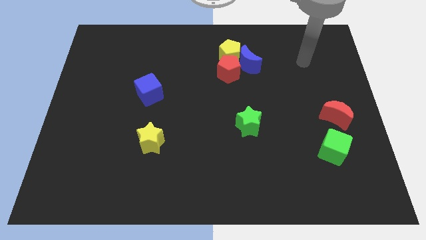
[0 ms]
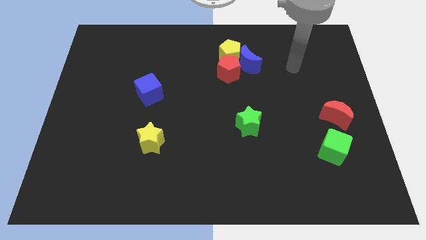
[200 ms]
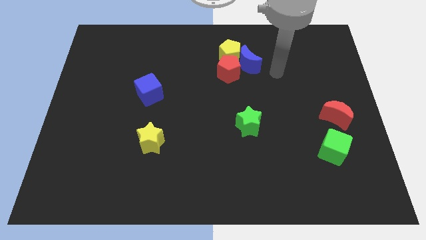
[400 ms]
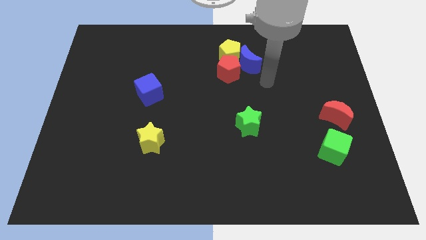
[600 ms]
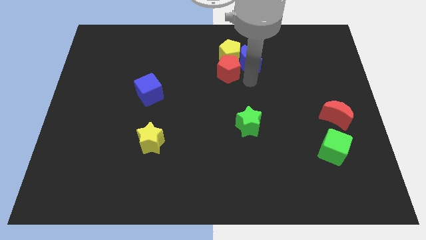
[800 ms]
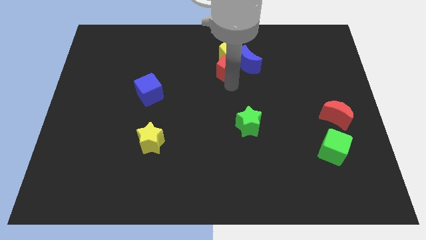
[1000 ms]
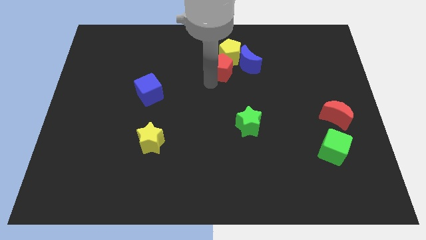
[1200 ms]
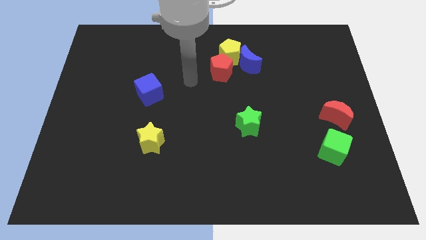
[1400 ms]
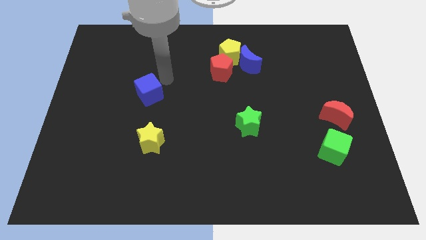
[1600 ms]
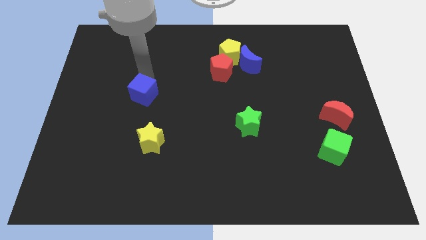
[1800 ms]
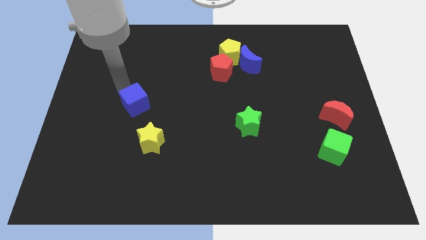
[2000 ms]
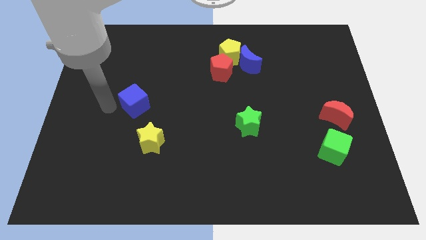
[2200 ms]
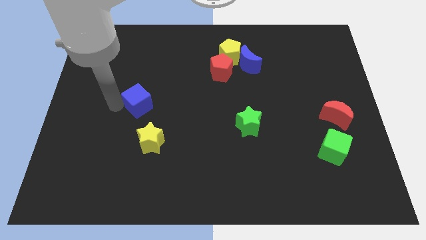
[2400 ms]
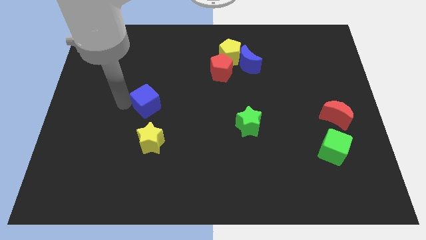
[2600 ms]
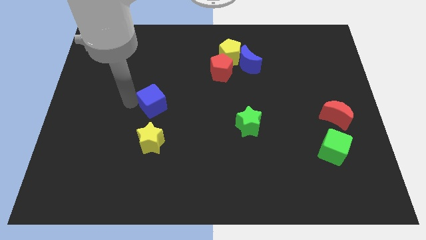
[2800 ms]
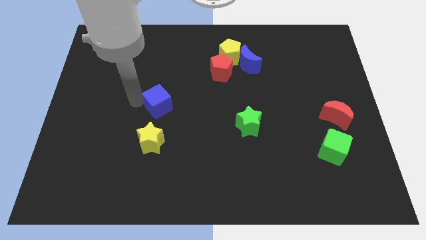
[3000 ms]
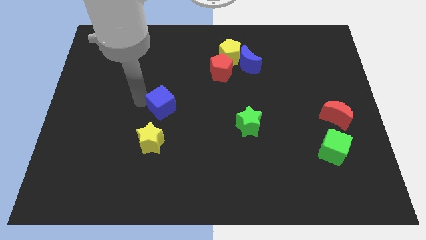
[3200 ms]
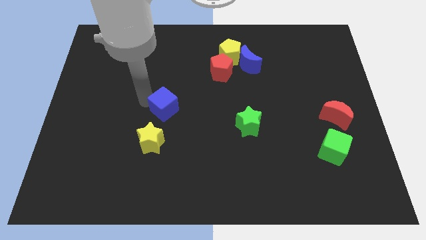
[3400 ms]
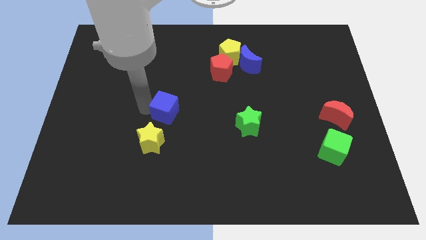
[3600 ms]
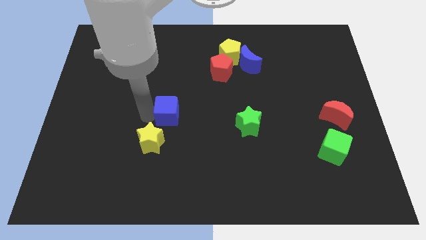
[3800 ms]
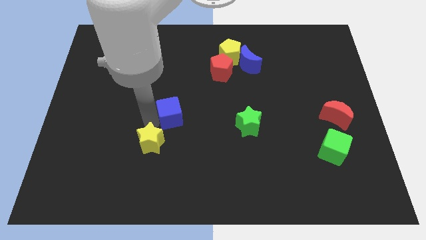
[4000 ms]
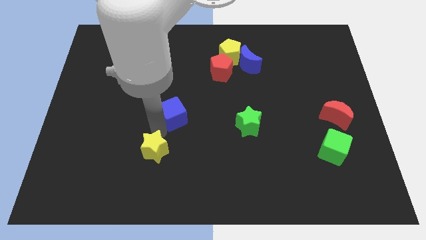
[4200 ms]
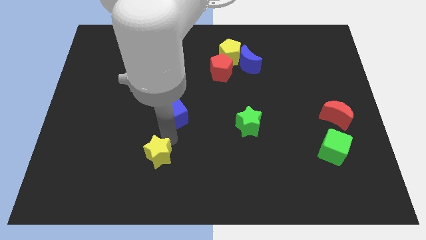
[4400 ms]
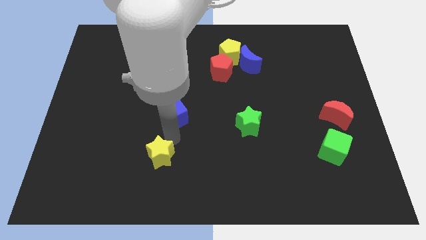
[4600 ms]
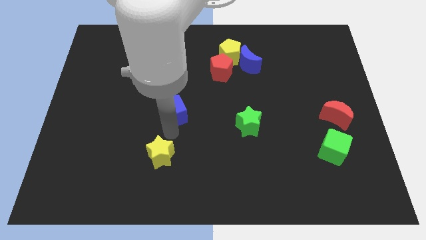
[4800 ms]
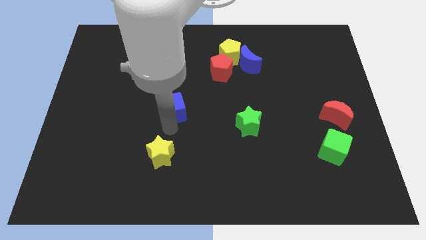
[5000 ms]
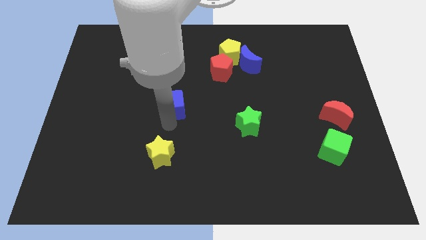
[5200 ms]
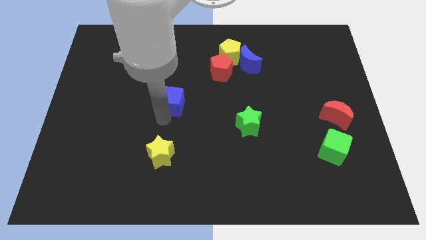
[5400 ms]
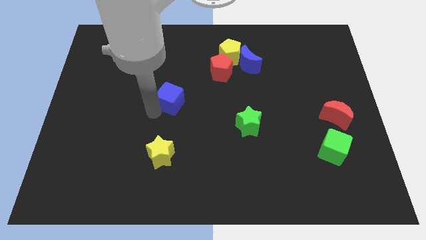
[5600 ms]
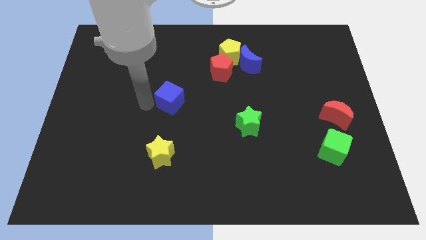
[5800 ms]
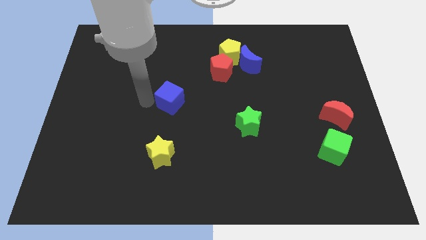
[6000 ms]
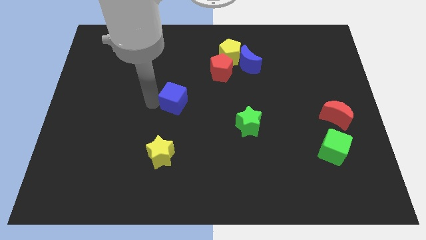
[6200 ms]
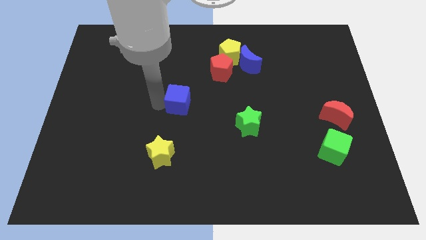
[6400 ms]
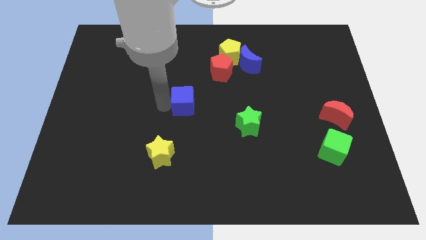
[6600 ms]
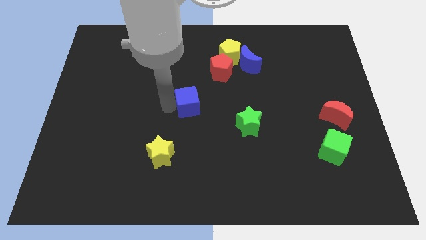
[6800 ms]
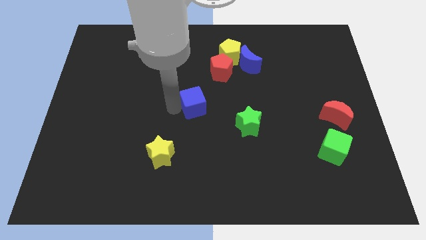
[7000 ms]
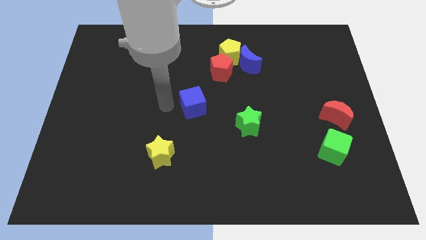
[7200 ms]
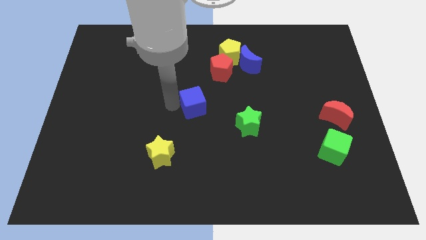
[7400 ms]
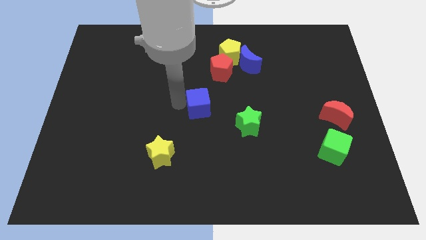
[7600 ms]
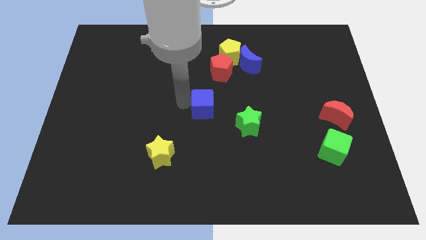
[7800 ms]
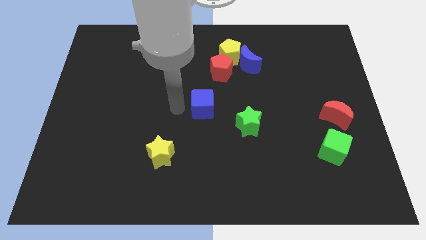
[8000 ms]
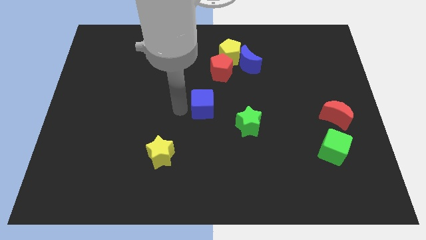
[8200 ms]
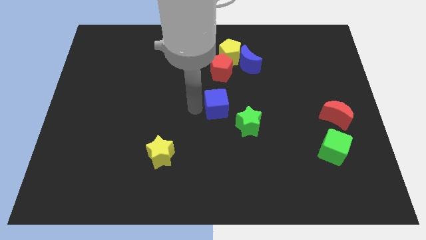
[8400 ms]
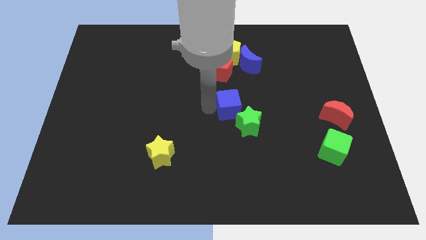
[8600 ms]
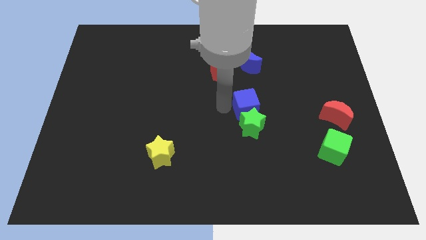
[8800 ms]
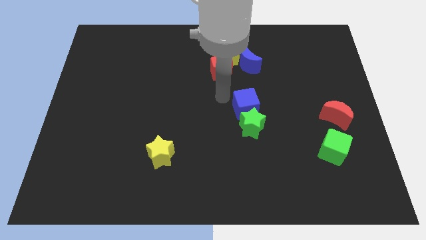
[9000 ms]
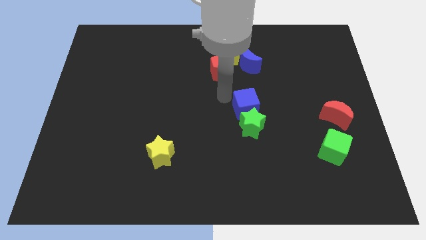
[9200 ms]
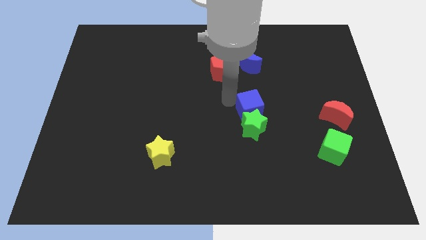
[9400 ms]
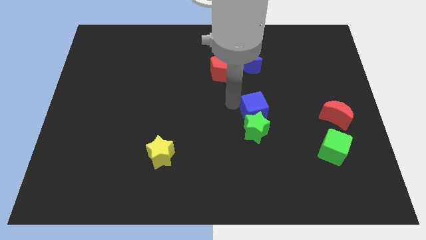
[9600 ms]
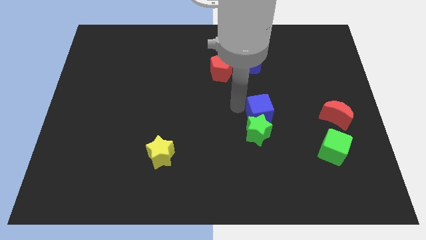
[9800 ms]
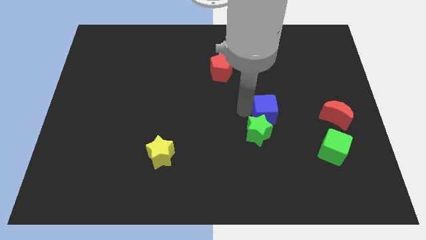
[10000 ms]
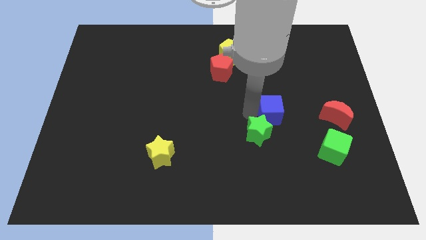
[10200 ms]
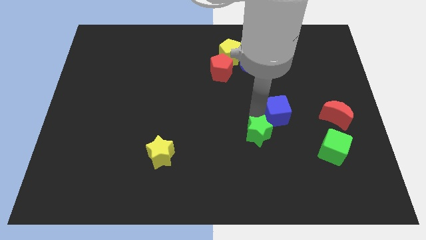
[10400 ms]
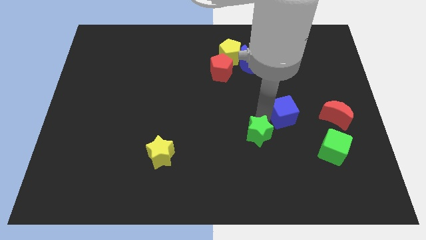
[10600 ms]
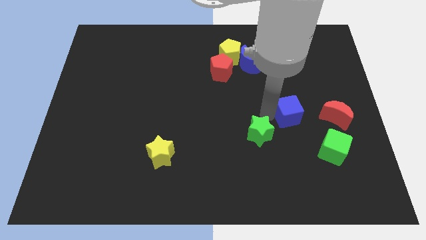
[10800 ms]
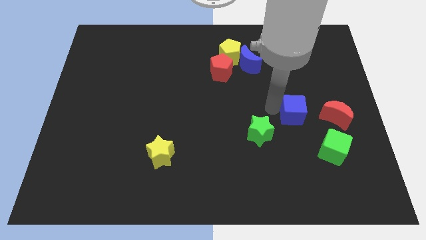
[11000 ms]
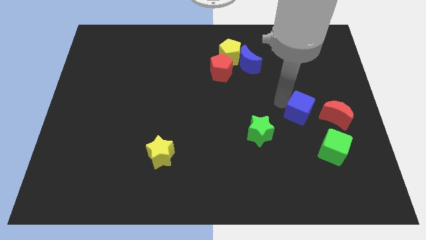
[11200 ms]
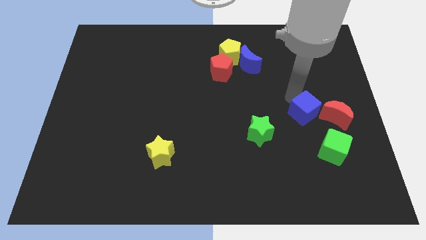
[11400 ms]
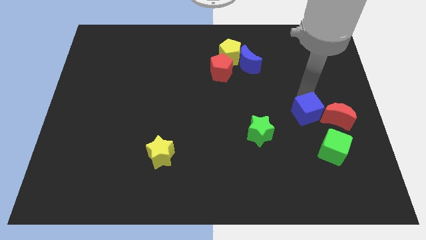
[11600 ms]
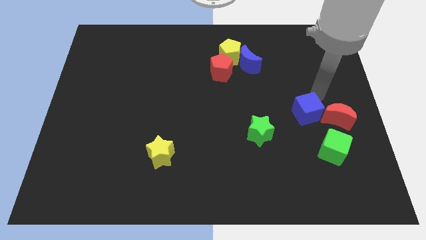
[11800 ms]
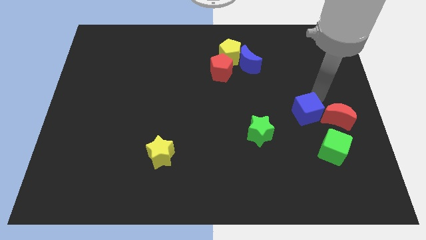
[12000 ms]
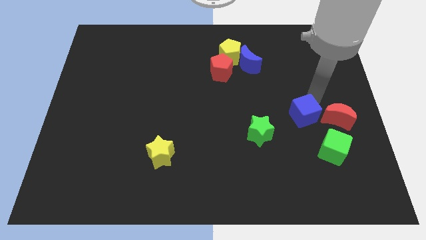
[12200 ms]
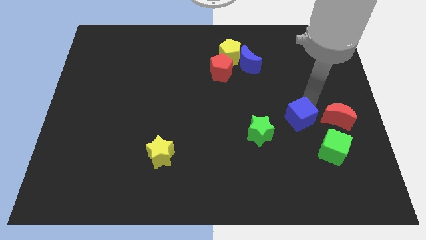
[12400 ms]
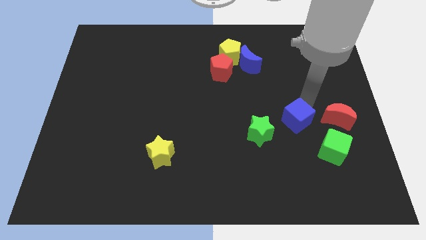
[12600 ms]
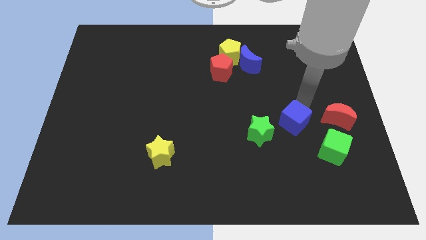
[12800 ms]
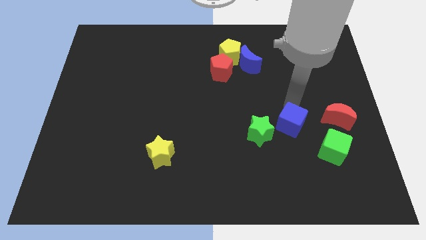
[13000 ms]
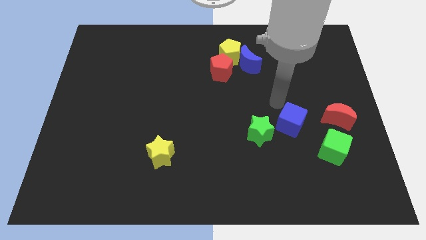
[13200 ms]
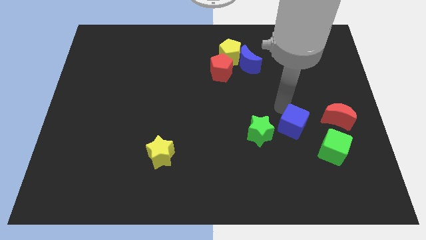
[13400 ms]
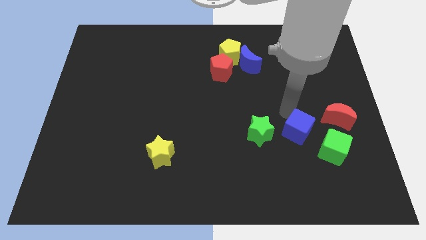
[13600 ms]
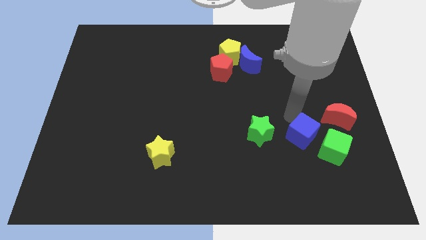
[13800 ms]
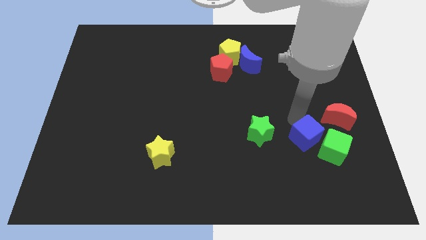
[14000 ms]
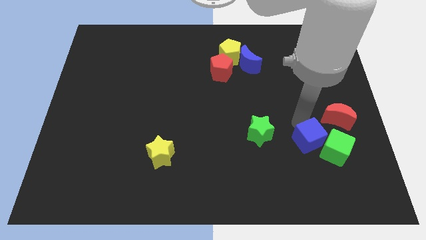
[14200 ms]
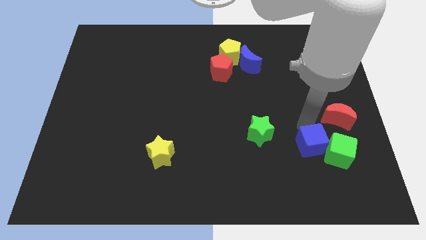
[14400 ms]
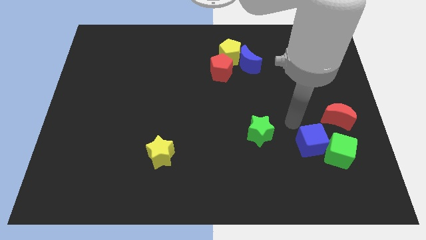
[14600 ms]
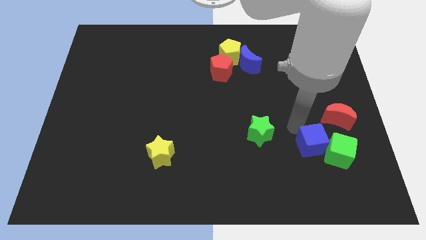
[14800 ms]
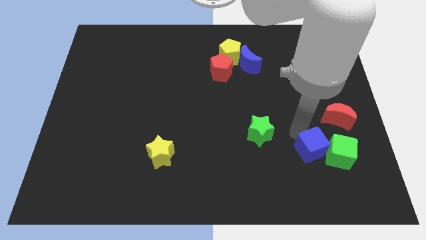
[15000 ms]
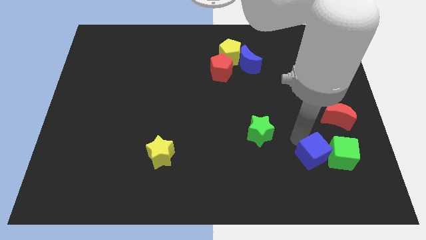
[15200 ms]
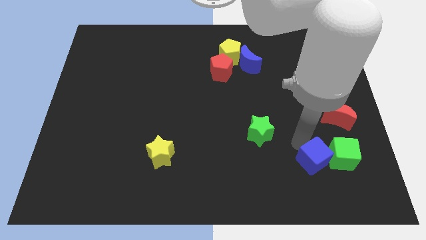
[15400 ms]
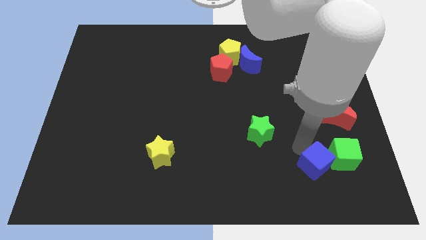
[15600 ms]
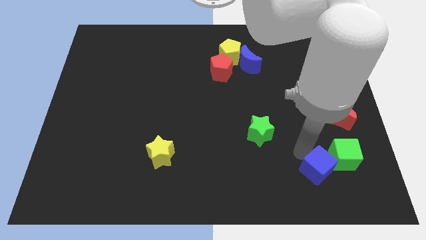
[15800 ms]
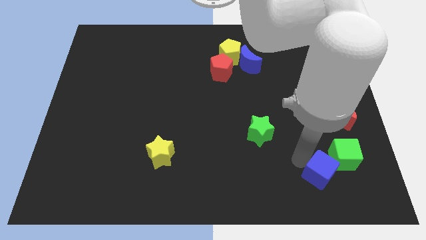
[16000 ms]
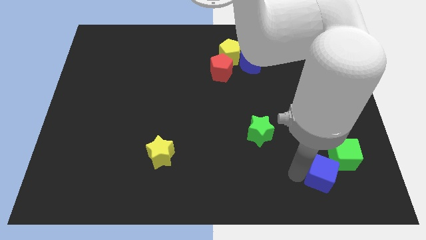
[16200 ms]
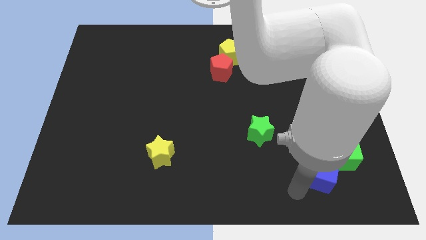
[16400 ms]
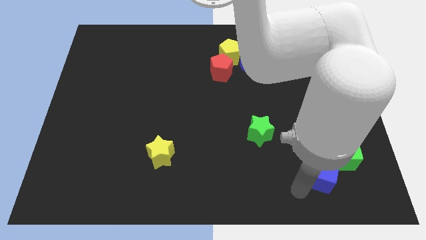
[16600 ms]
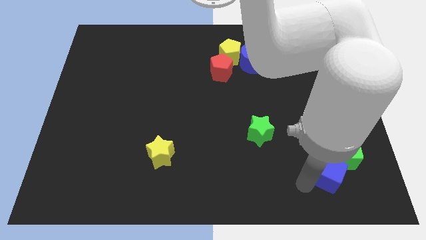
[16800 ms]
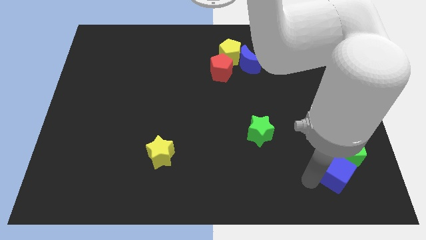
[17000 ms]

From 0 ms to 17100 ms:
move the blue cube to the bottom side of the red moon
